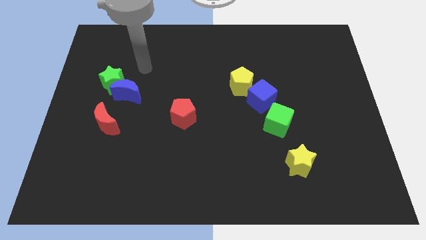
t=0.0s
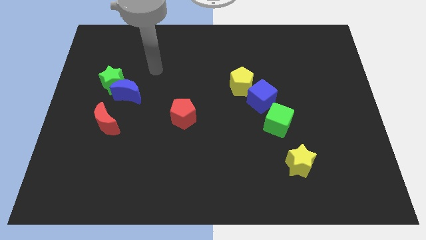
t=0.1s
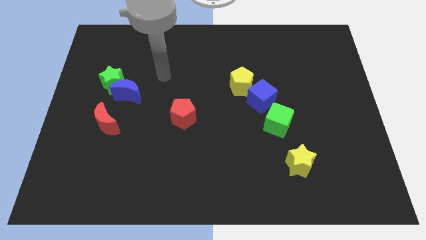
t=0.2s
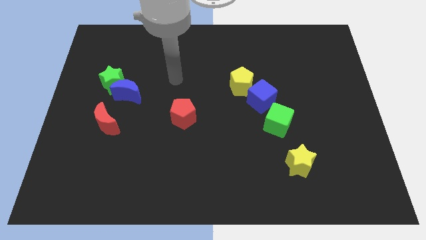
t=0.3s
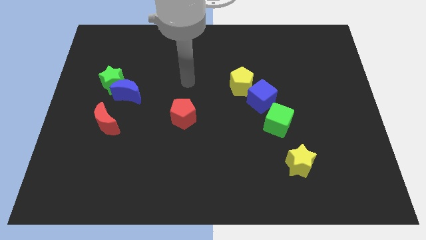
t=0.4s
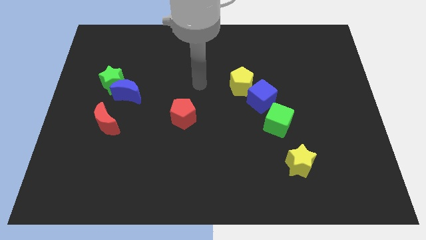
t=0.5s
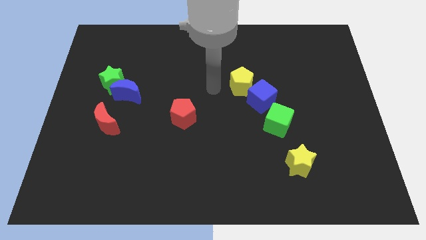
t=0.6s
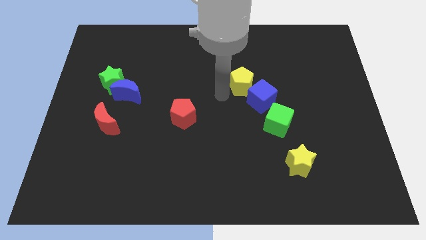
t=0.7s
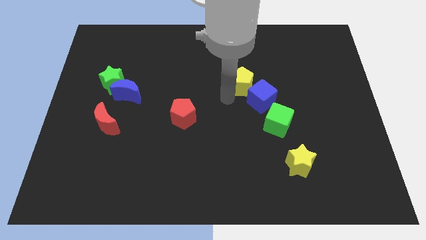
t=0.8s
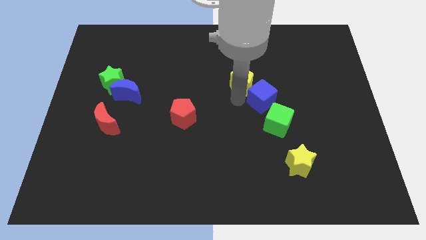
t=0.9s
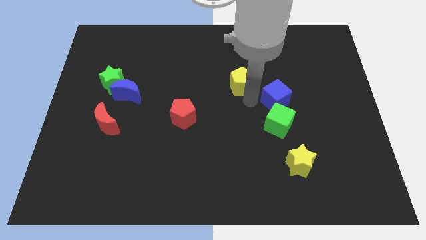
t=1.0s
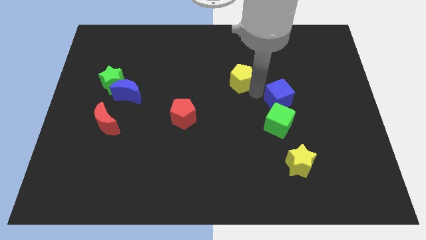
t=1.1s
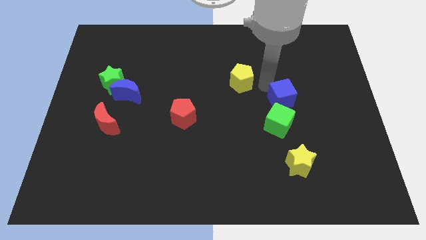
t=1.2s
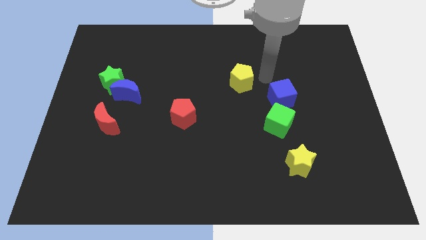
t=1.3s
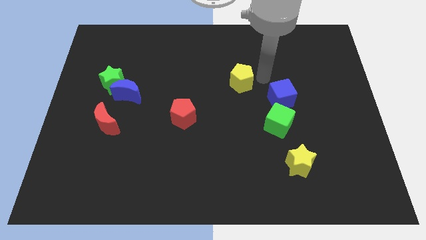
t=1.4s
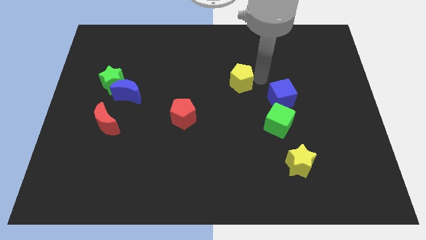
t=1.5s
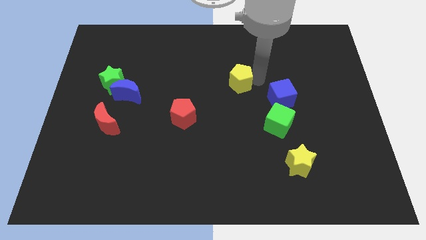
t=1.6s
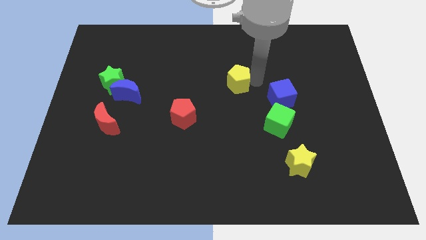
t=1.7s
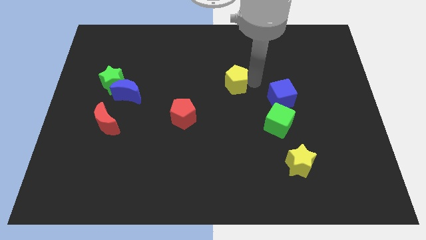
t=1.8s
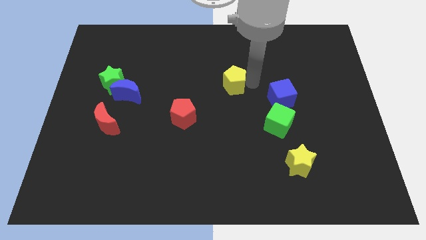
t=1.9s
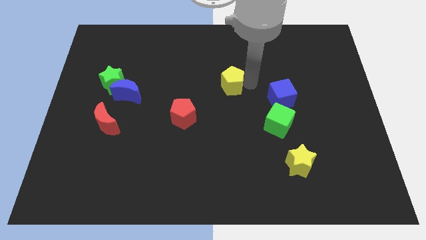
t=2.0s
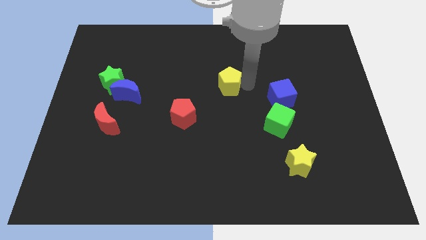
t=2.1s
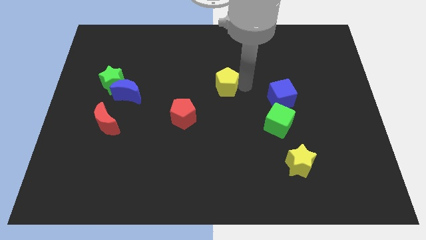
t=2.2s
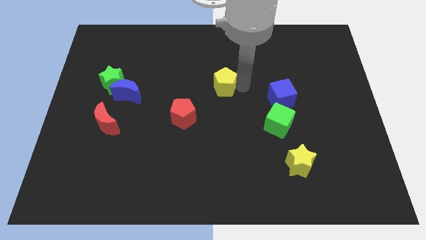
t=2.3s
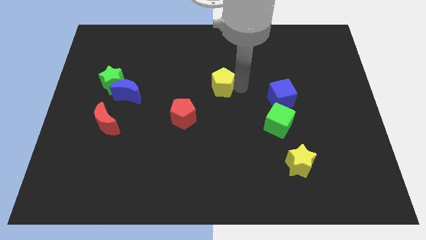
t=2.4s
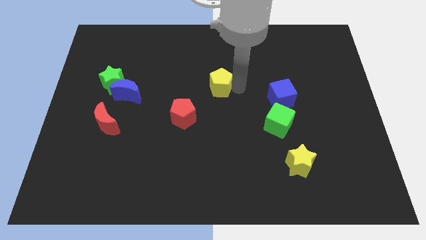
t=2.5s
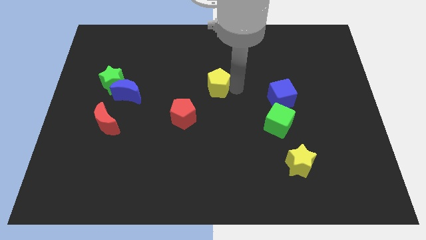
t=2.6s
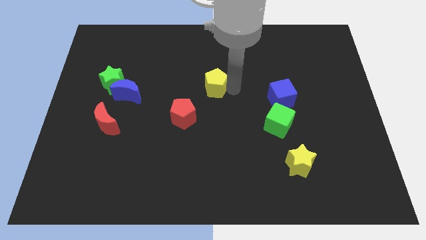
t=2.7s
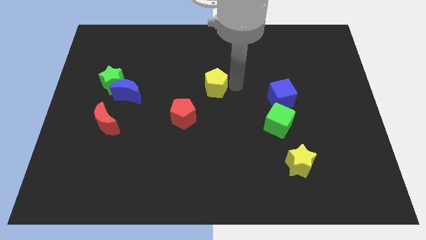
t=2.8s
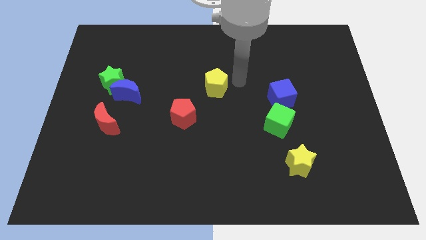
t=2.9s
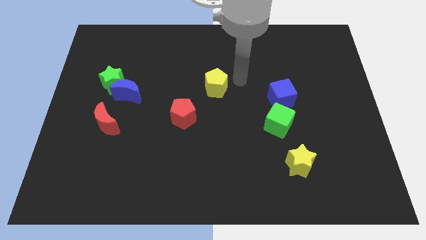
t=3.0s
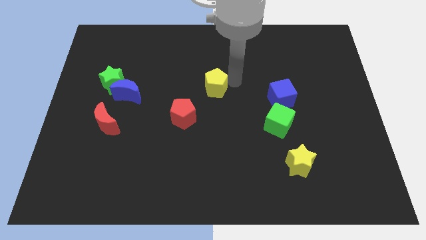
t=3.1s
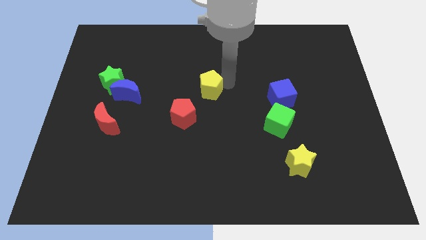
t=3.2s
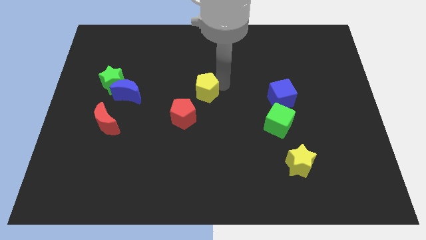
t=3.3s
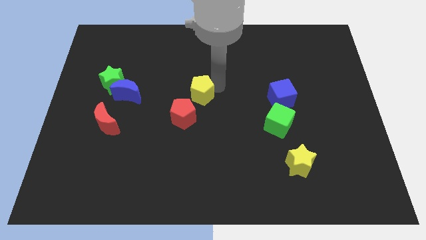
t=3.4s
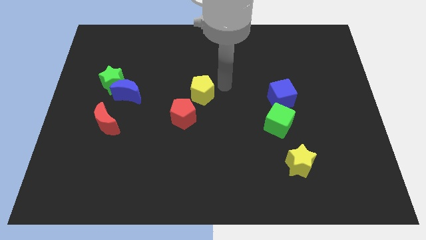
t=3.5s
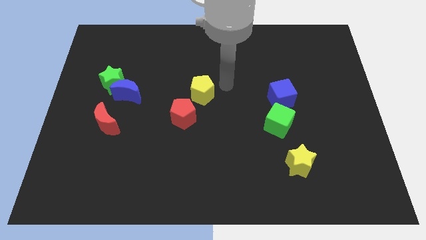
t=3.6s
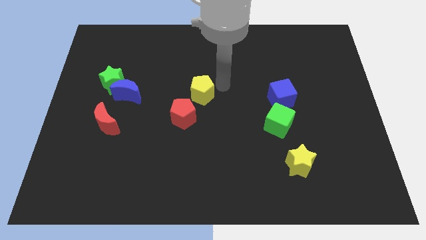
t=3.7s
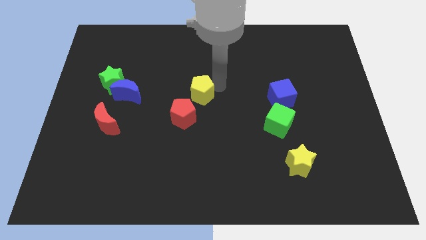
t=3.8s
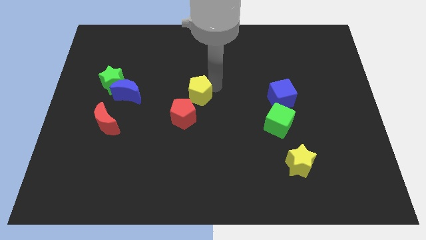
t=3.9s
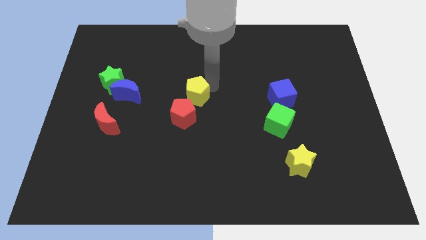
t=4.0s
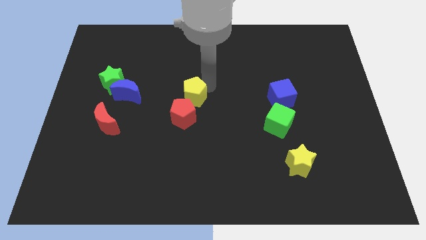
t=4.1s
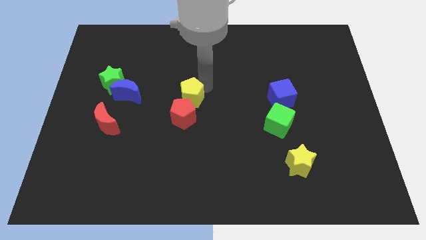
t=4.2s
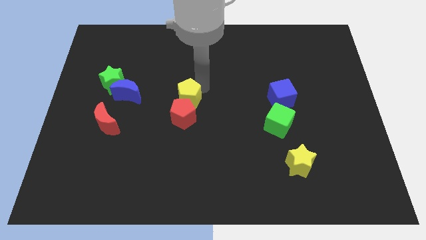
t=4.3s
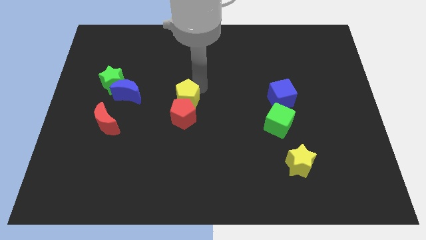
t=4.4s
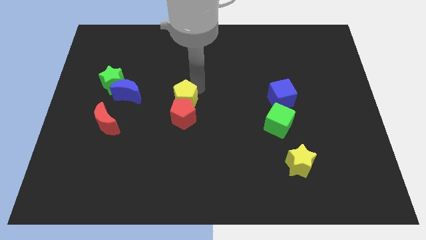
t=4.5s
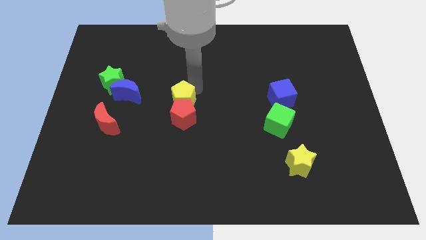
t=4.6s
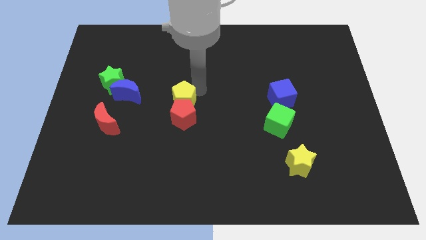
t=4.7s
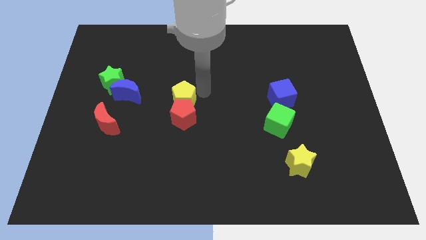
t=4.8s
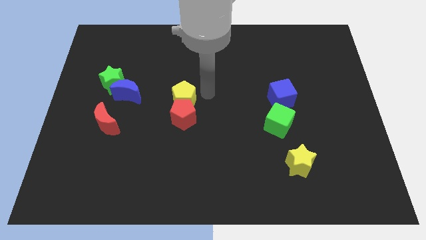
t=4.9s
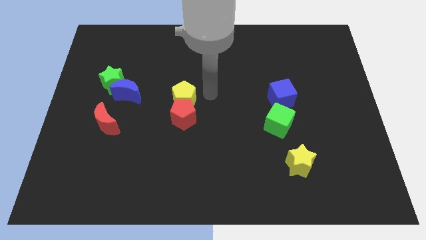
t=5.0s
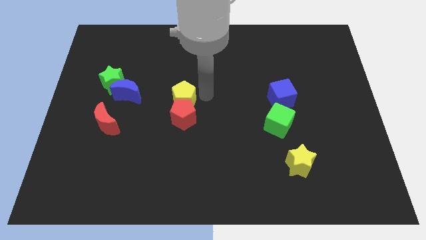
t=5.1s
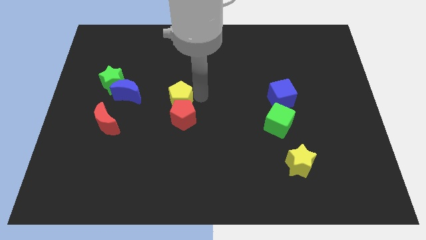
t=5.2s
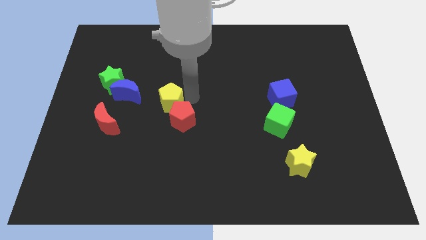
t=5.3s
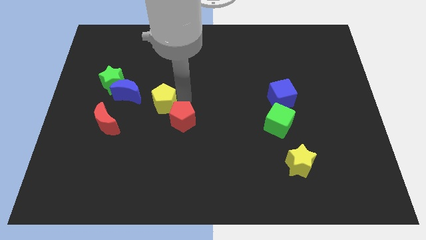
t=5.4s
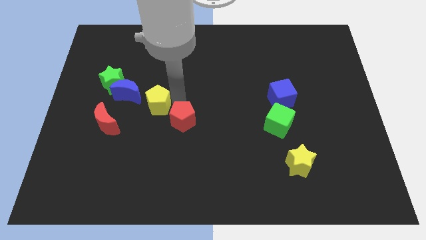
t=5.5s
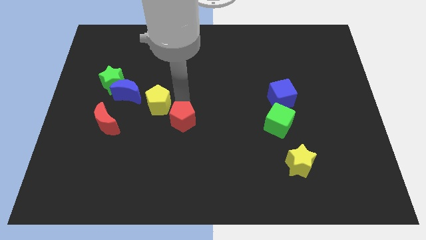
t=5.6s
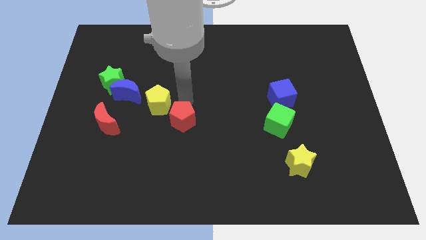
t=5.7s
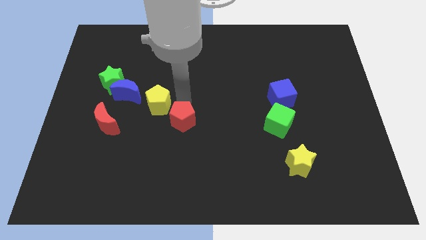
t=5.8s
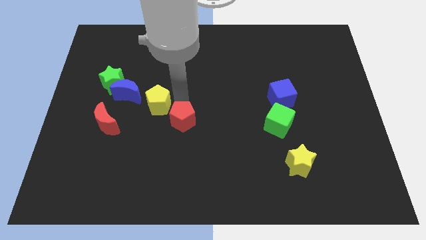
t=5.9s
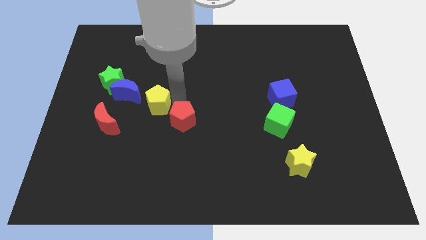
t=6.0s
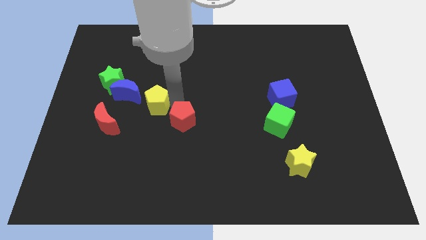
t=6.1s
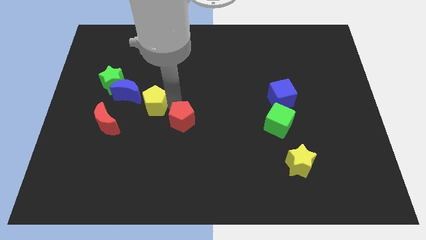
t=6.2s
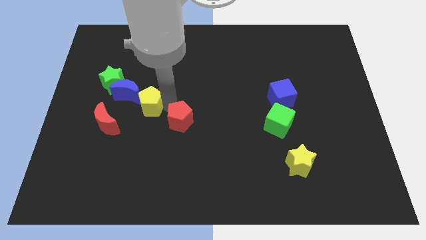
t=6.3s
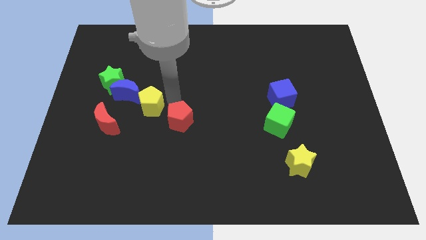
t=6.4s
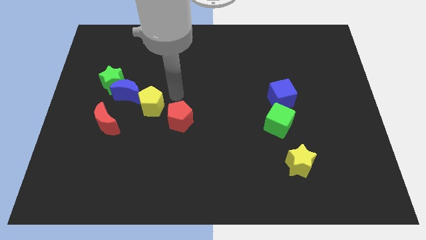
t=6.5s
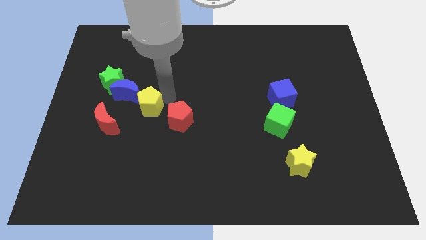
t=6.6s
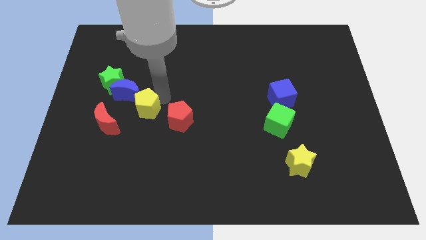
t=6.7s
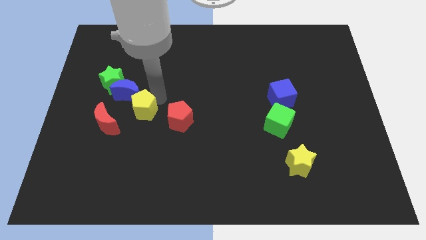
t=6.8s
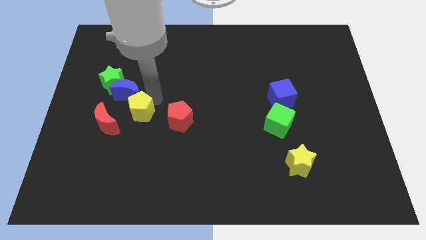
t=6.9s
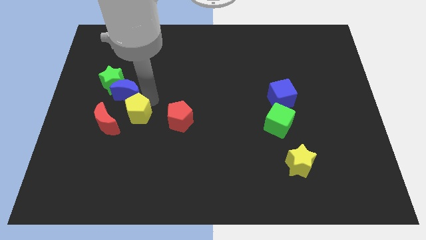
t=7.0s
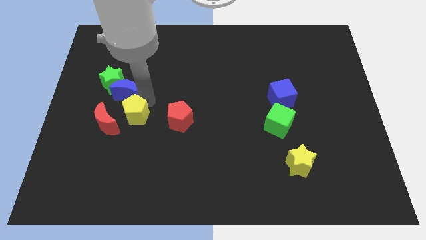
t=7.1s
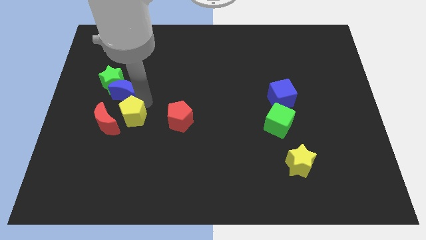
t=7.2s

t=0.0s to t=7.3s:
move the yellow pentagon next to the red moon

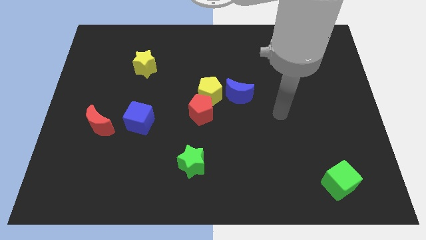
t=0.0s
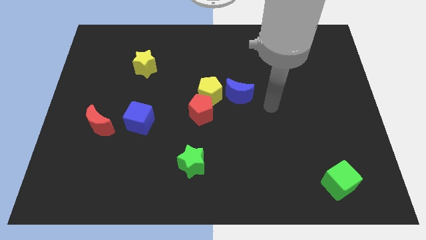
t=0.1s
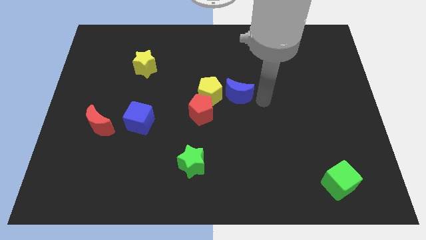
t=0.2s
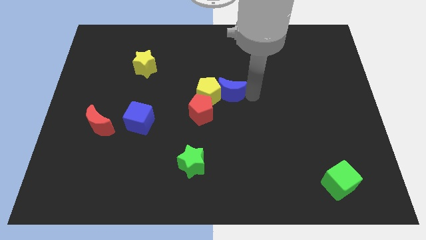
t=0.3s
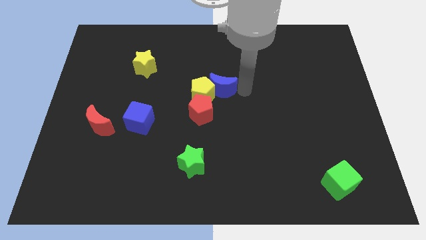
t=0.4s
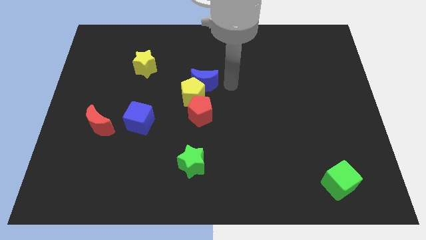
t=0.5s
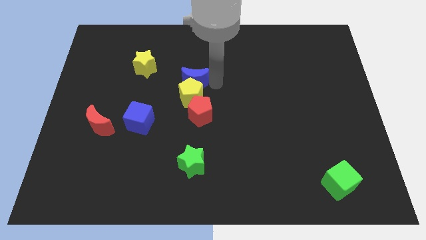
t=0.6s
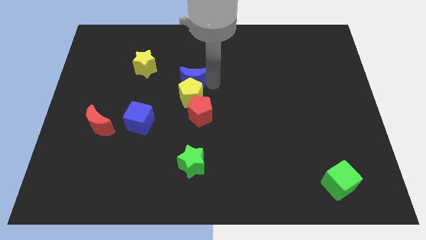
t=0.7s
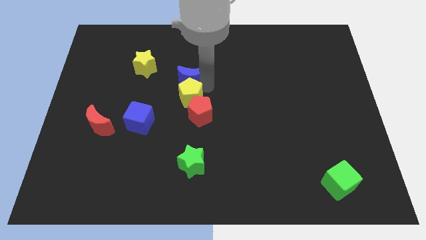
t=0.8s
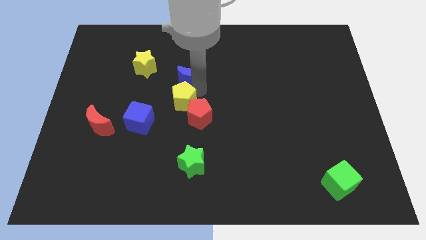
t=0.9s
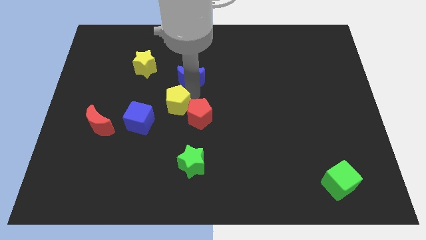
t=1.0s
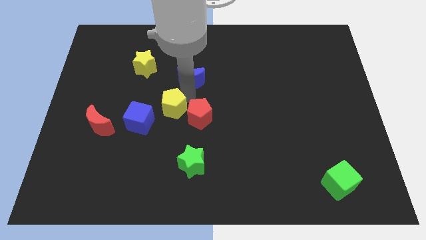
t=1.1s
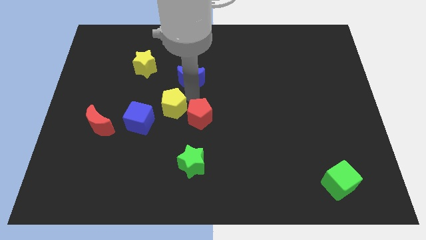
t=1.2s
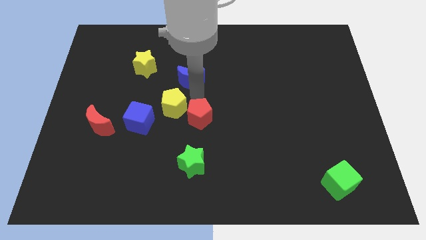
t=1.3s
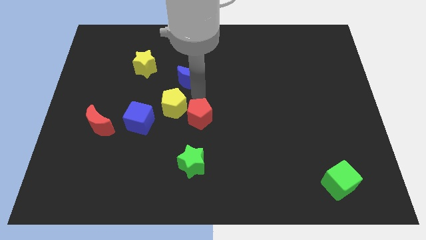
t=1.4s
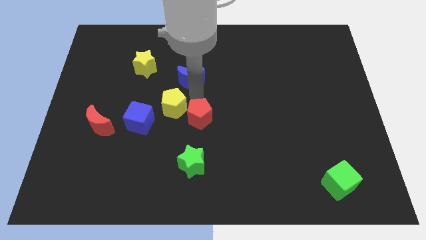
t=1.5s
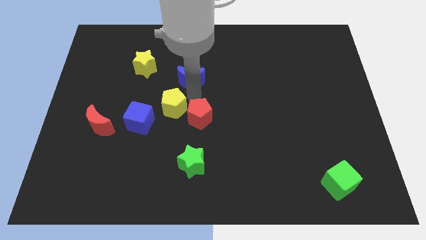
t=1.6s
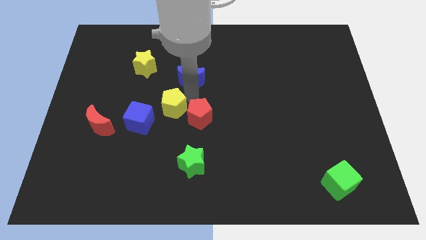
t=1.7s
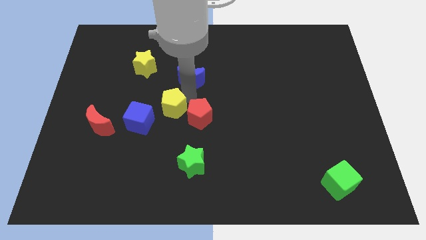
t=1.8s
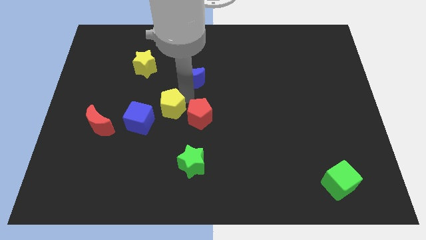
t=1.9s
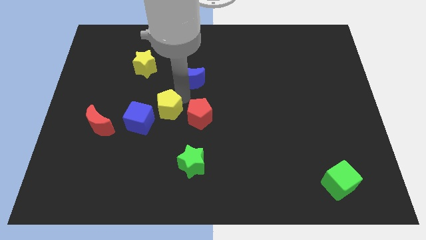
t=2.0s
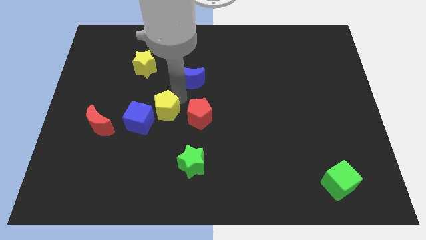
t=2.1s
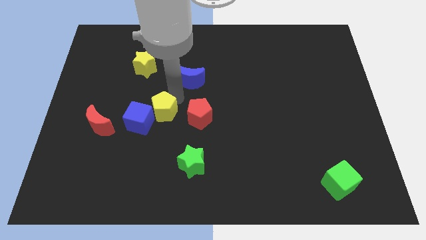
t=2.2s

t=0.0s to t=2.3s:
slide the yellow pentagon towards the blue cube
